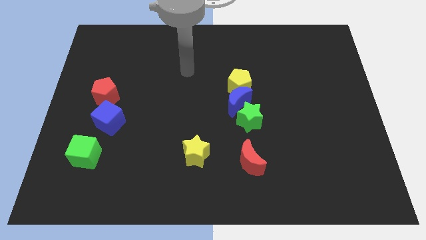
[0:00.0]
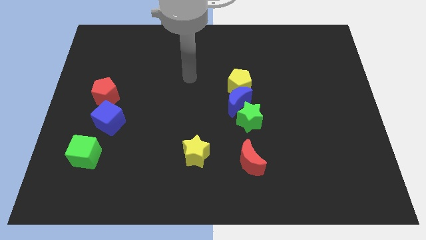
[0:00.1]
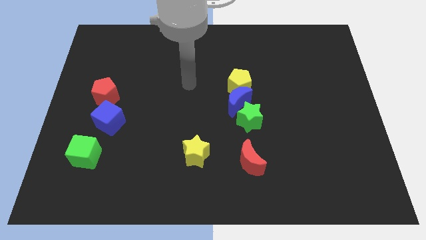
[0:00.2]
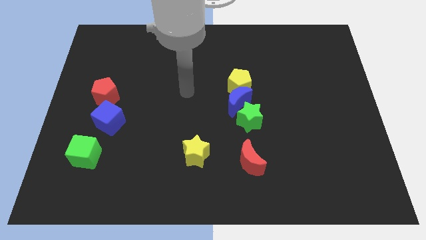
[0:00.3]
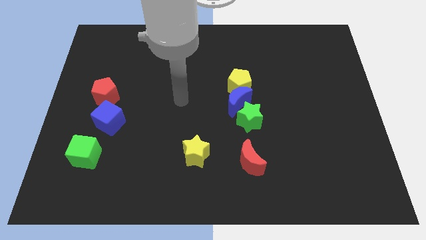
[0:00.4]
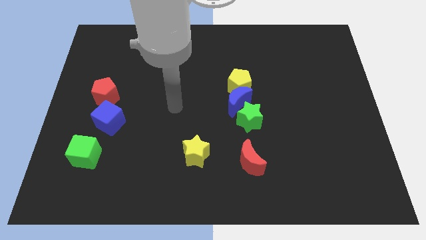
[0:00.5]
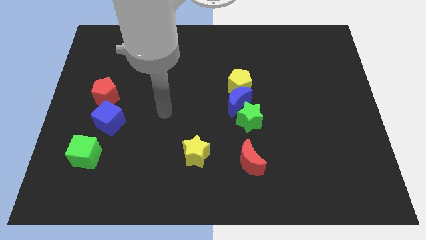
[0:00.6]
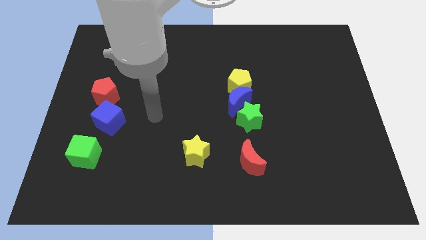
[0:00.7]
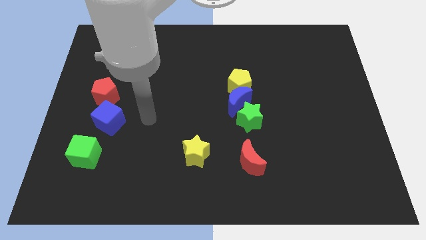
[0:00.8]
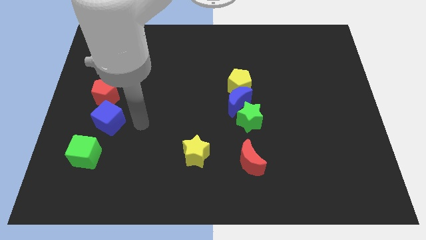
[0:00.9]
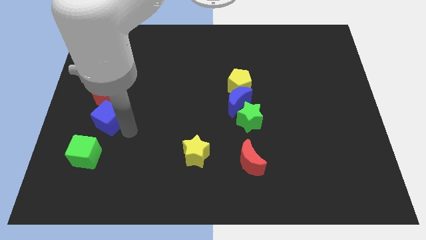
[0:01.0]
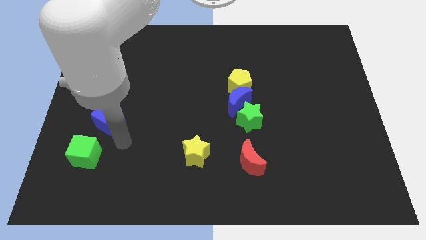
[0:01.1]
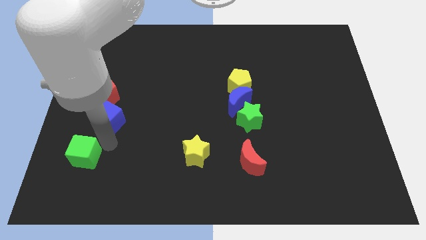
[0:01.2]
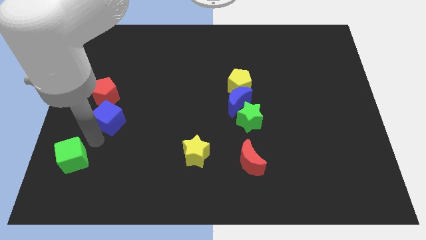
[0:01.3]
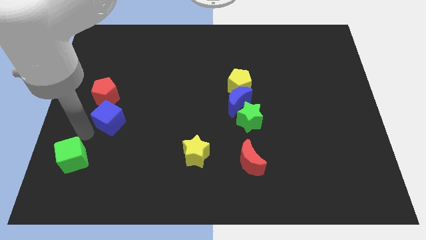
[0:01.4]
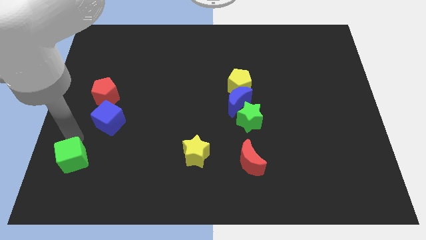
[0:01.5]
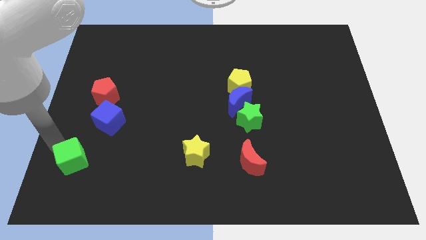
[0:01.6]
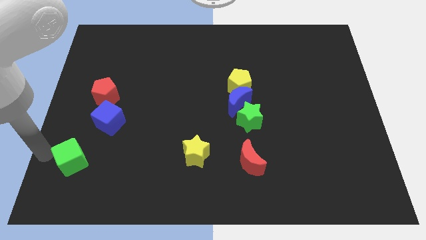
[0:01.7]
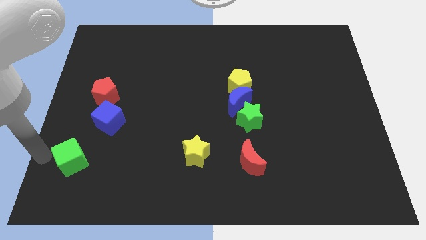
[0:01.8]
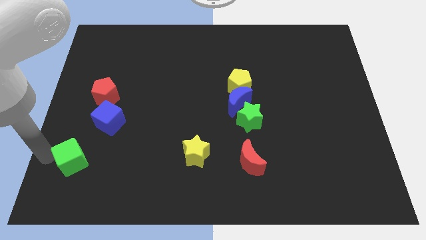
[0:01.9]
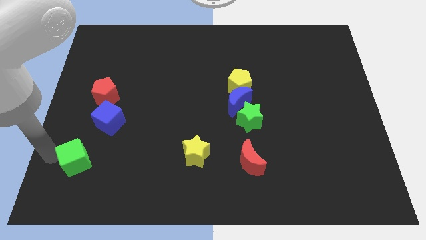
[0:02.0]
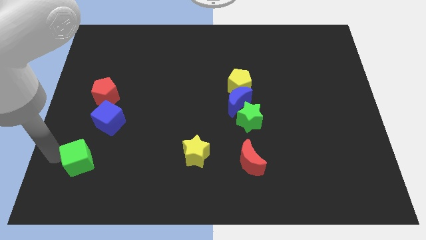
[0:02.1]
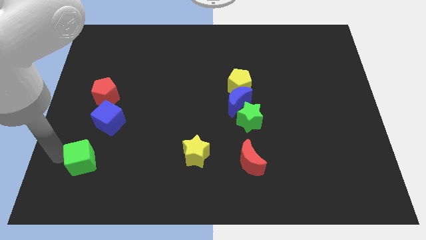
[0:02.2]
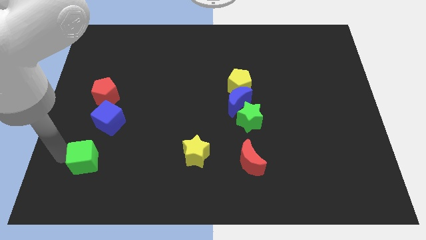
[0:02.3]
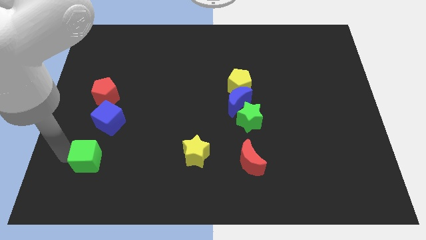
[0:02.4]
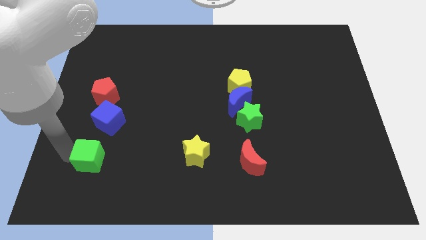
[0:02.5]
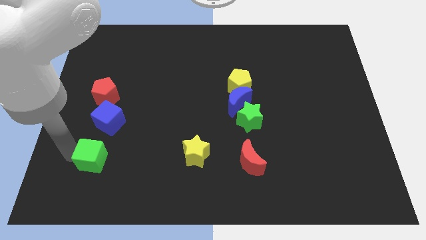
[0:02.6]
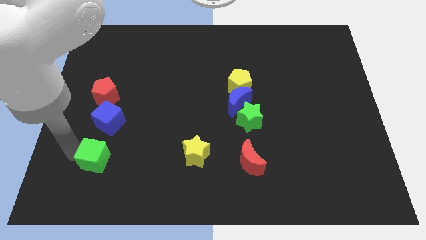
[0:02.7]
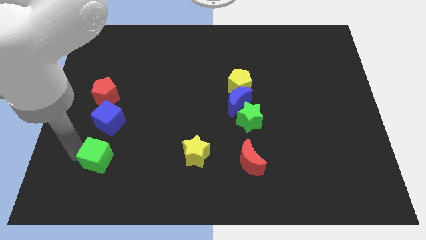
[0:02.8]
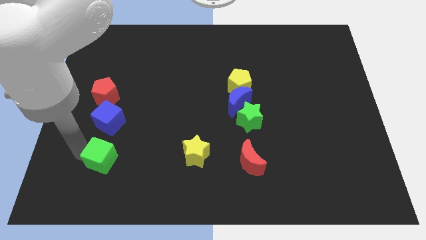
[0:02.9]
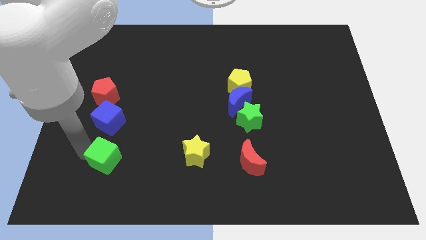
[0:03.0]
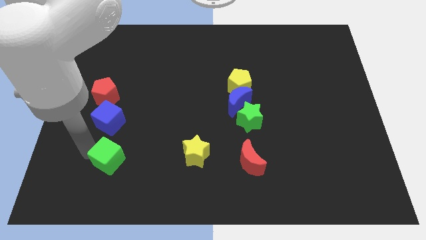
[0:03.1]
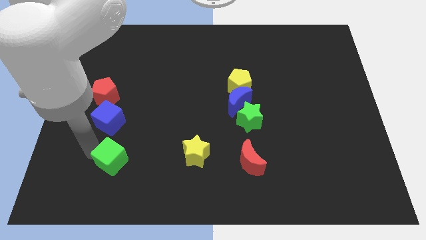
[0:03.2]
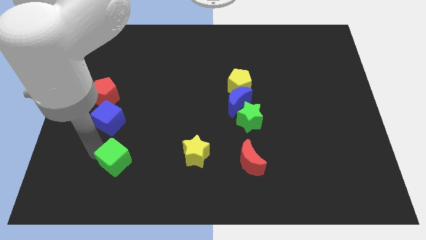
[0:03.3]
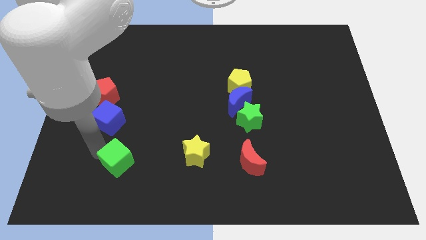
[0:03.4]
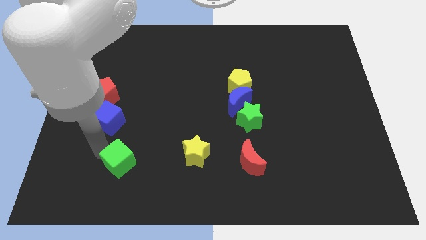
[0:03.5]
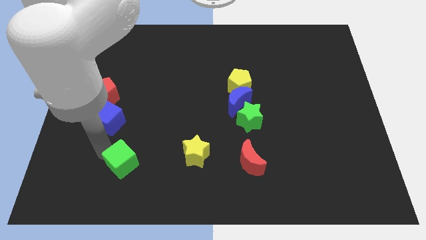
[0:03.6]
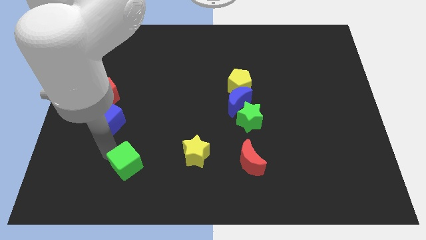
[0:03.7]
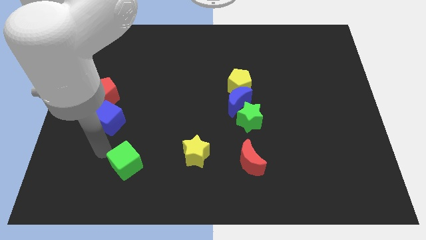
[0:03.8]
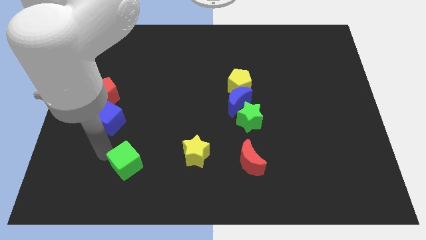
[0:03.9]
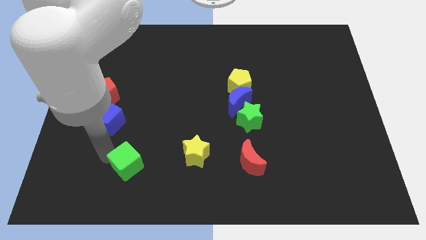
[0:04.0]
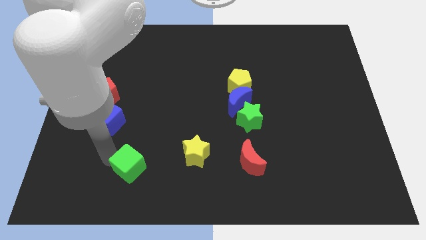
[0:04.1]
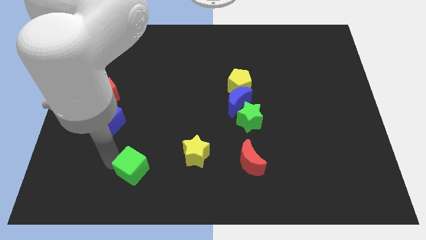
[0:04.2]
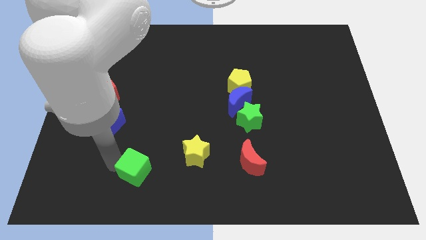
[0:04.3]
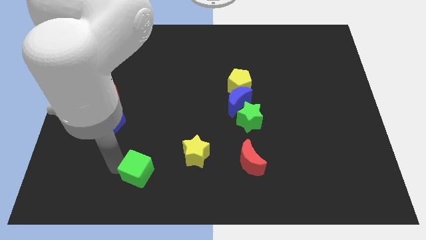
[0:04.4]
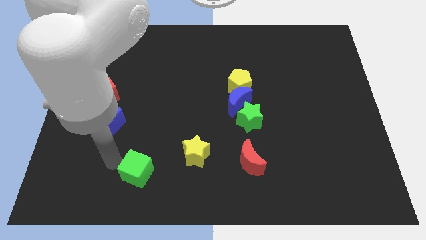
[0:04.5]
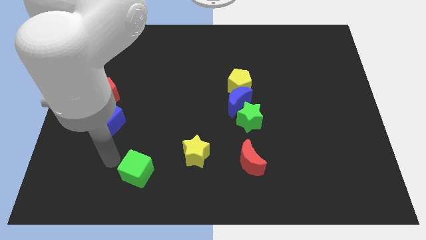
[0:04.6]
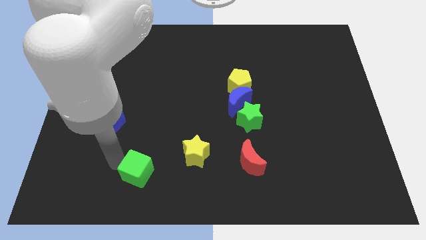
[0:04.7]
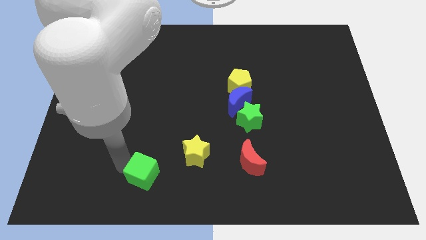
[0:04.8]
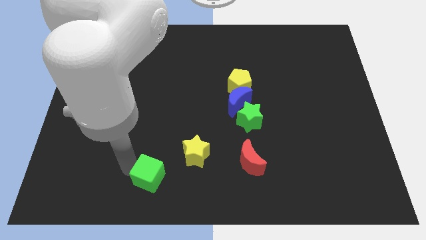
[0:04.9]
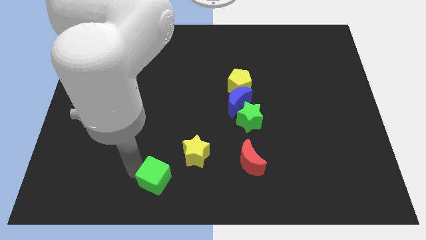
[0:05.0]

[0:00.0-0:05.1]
slide the green cube to the bottom side

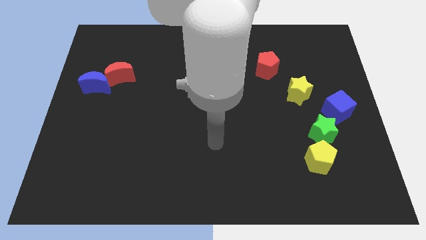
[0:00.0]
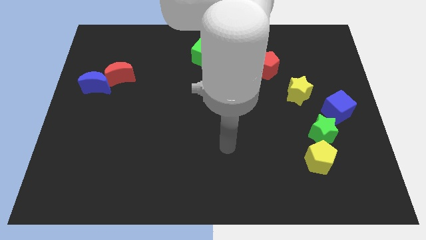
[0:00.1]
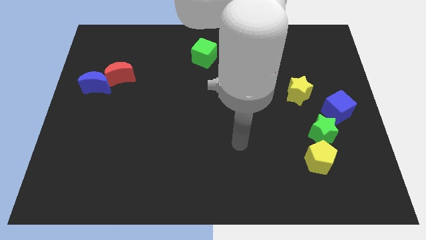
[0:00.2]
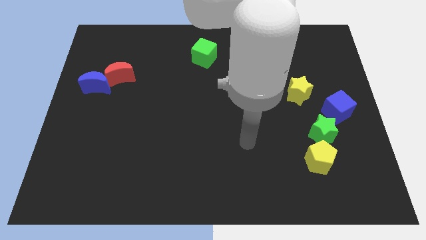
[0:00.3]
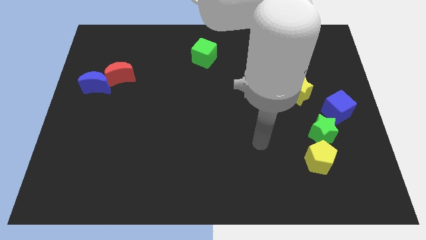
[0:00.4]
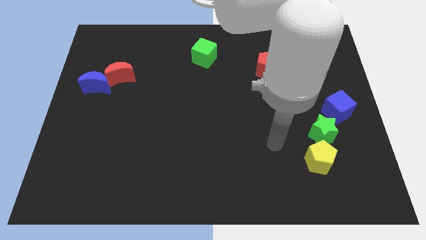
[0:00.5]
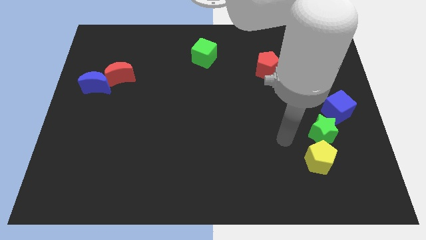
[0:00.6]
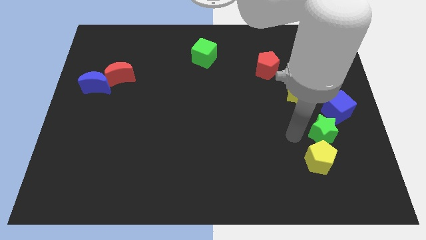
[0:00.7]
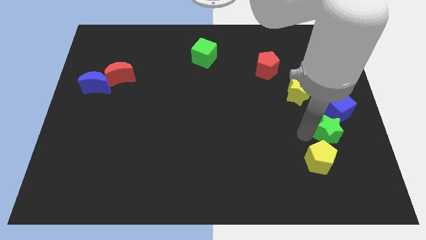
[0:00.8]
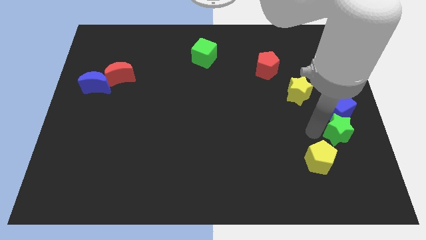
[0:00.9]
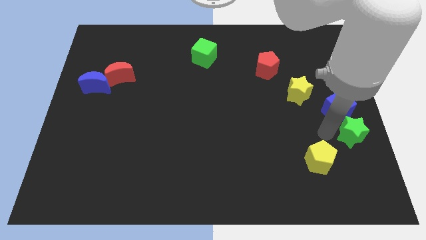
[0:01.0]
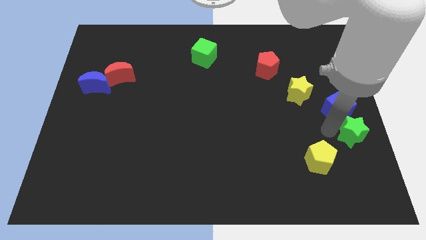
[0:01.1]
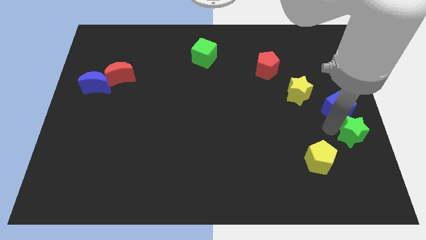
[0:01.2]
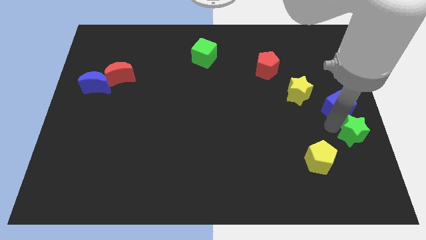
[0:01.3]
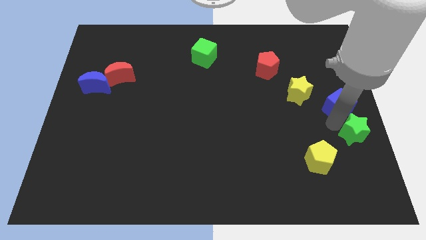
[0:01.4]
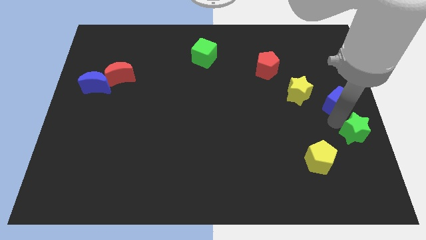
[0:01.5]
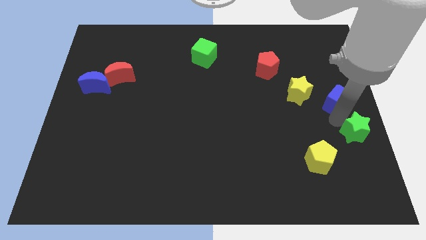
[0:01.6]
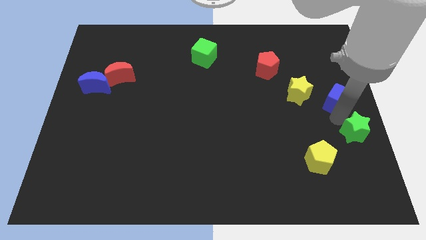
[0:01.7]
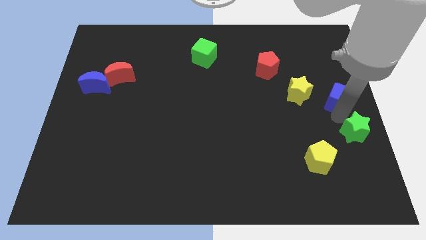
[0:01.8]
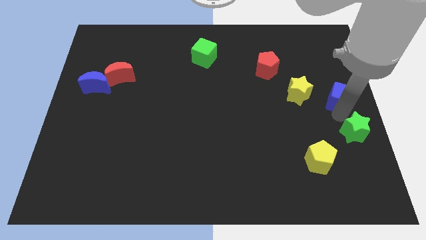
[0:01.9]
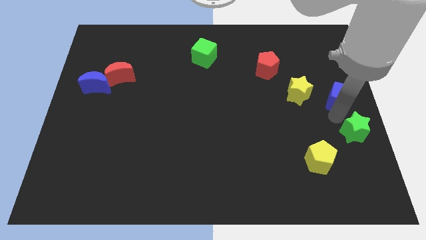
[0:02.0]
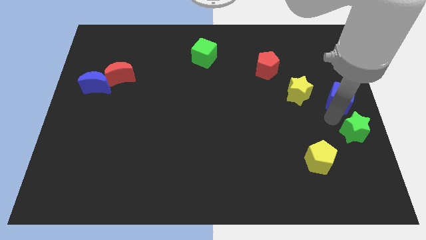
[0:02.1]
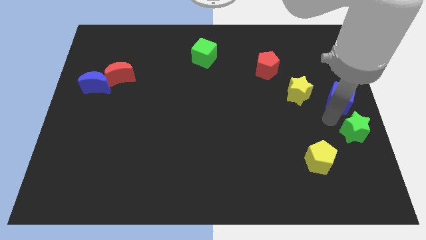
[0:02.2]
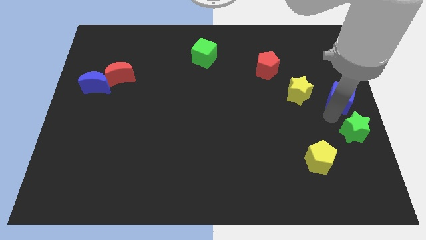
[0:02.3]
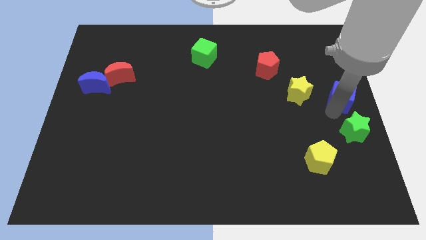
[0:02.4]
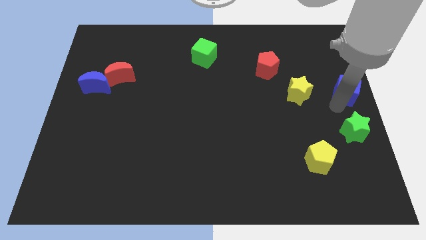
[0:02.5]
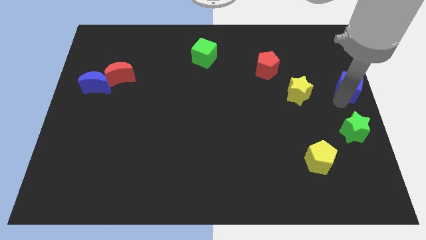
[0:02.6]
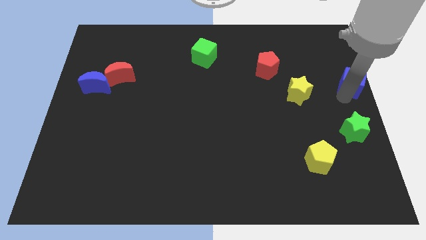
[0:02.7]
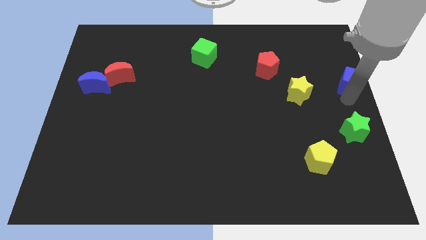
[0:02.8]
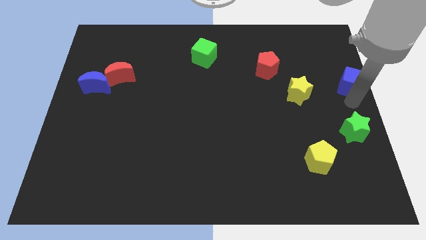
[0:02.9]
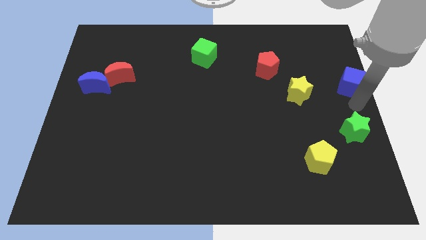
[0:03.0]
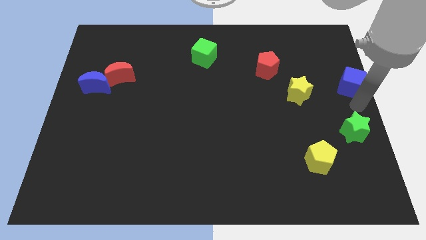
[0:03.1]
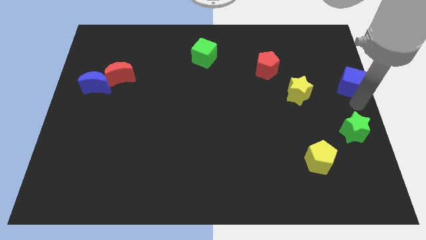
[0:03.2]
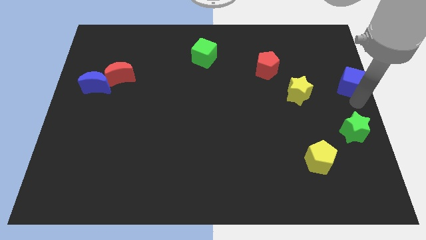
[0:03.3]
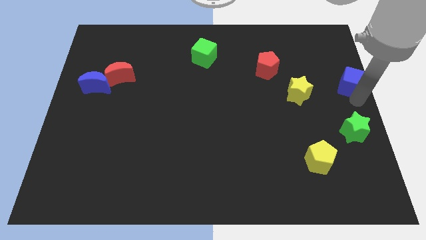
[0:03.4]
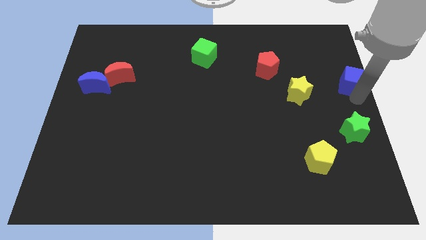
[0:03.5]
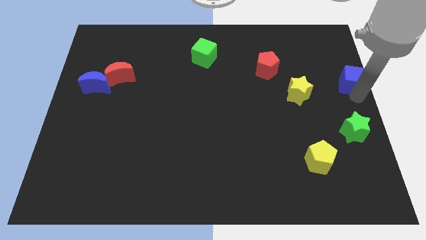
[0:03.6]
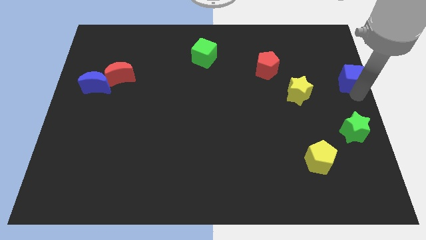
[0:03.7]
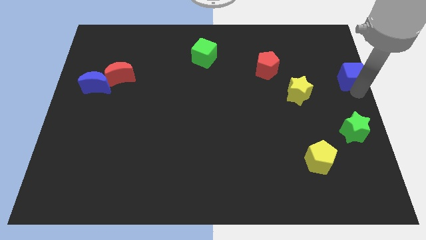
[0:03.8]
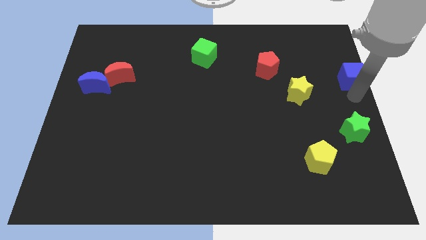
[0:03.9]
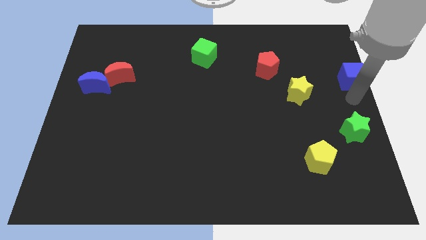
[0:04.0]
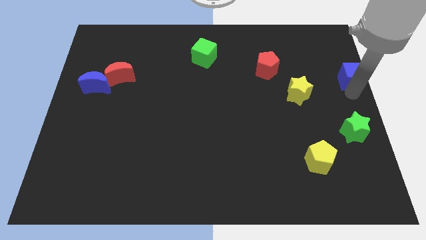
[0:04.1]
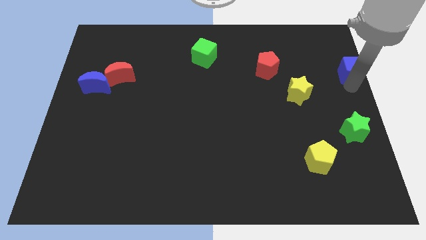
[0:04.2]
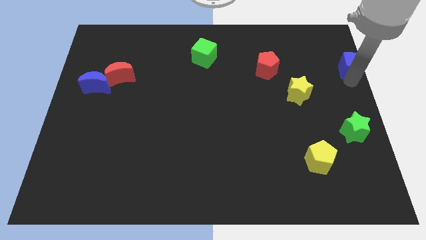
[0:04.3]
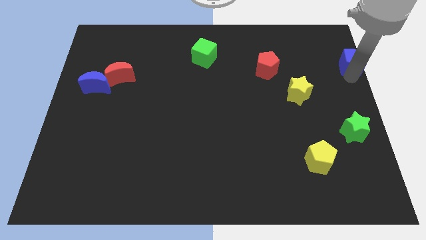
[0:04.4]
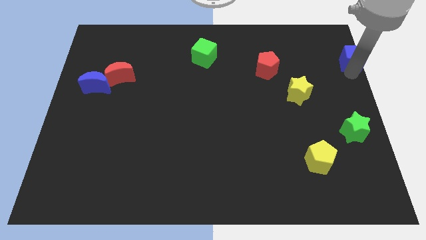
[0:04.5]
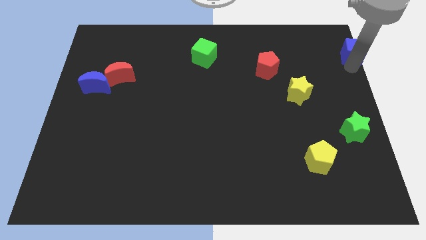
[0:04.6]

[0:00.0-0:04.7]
put the blue cube to the top right corner
